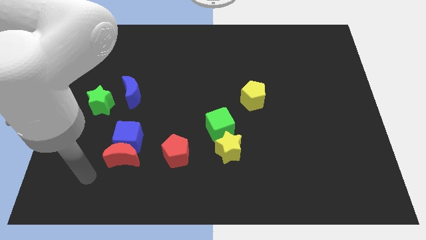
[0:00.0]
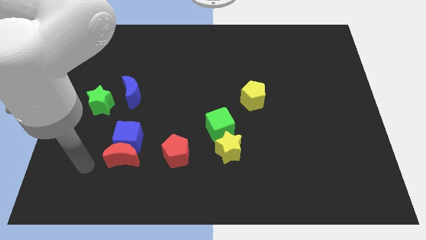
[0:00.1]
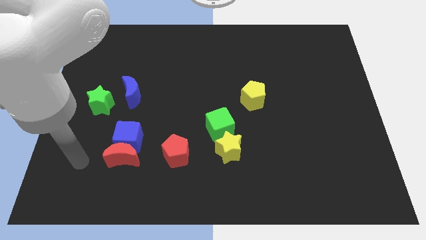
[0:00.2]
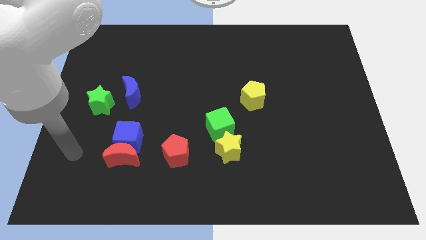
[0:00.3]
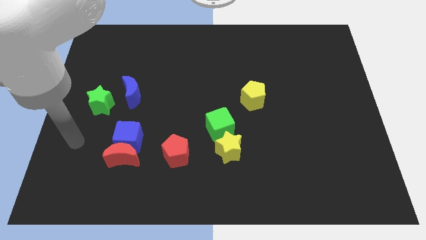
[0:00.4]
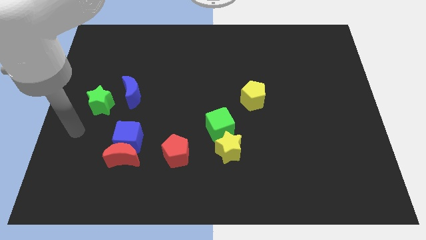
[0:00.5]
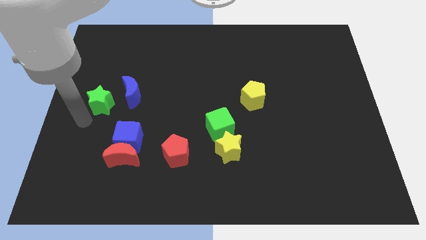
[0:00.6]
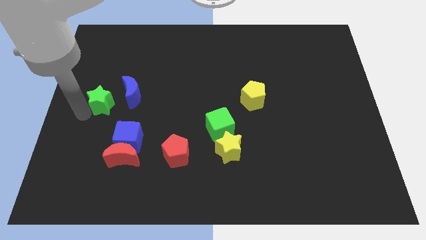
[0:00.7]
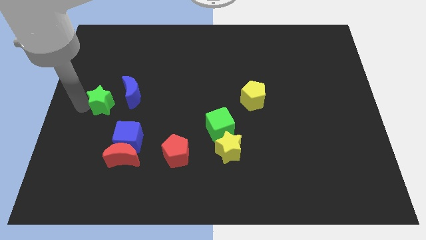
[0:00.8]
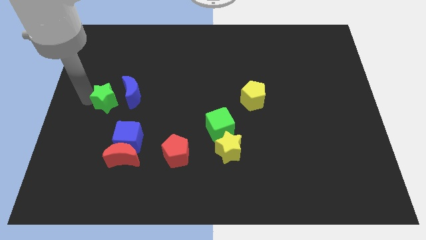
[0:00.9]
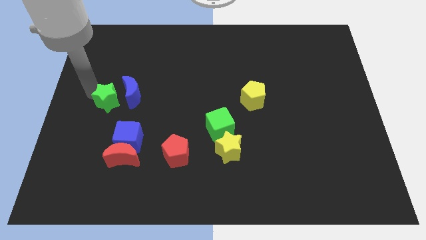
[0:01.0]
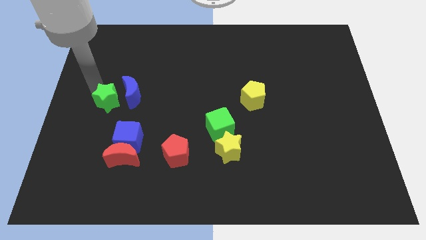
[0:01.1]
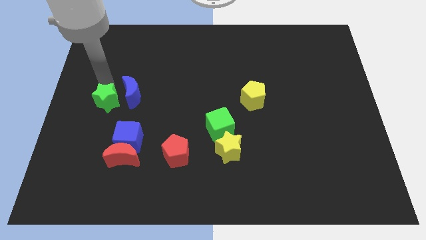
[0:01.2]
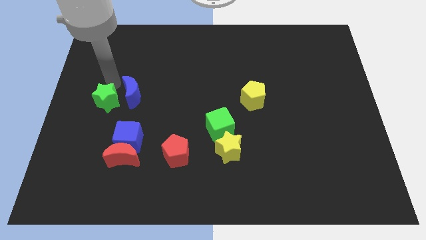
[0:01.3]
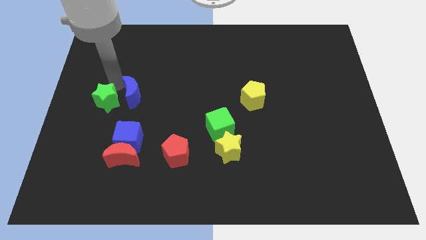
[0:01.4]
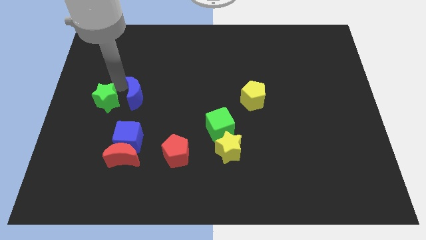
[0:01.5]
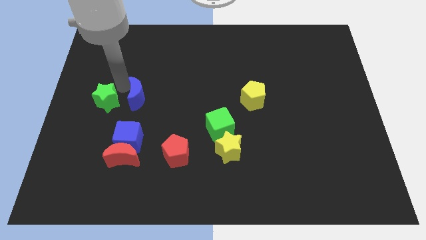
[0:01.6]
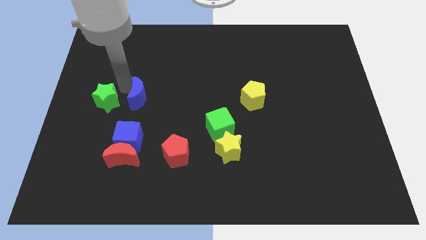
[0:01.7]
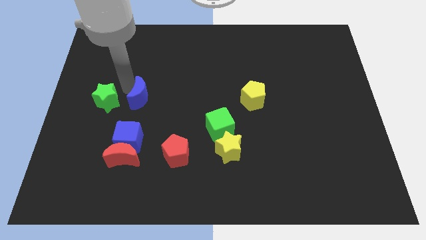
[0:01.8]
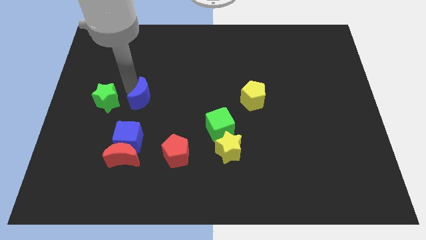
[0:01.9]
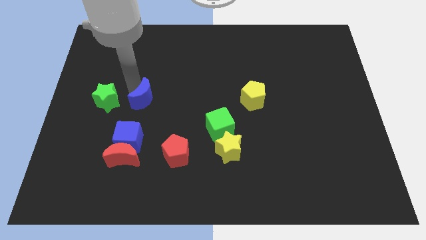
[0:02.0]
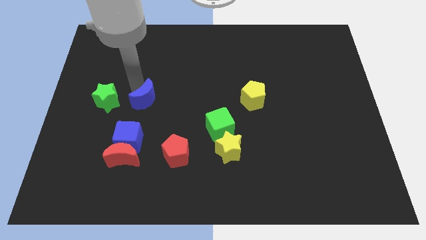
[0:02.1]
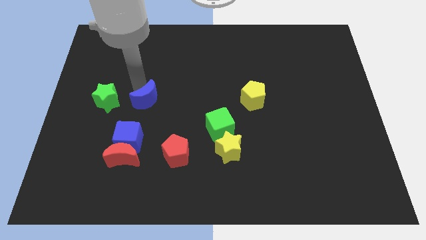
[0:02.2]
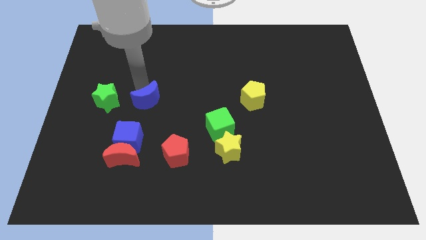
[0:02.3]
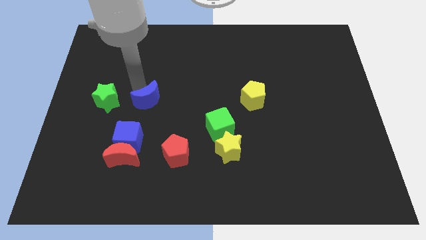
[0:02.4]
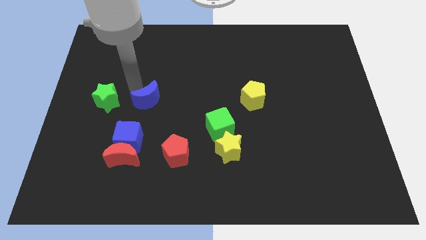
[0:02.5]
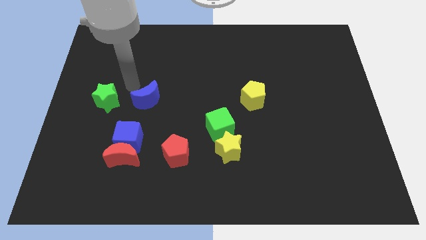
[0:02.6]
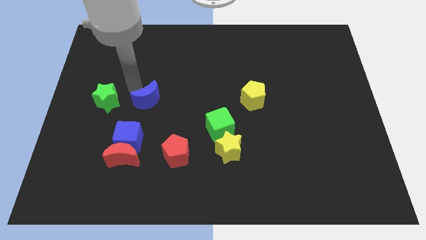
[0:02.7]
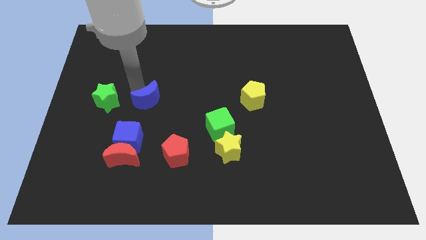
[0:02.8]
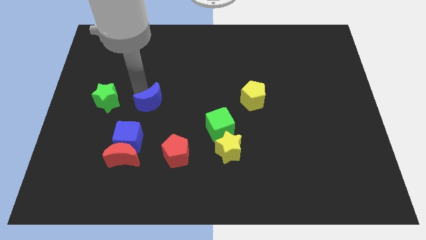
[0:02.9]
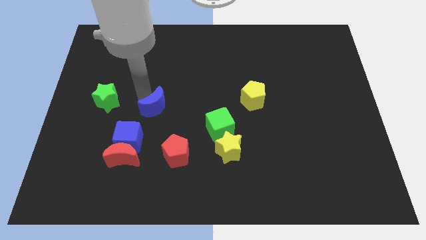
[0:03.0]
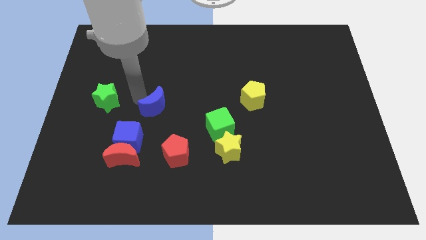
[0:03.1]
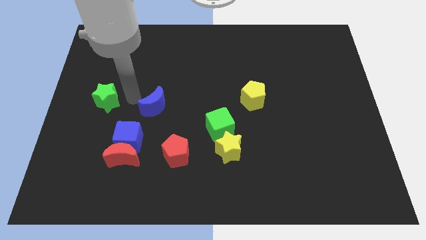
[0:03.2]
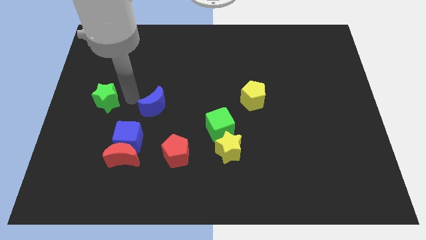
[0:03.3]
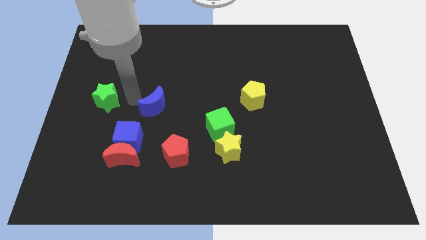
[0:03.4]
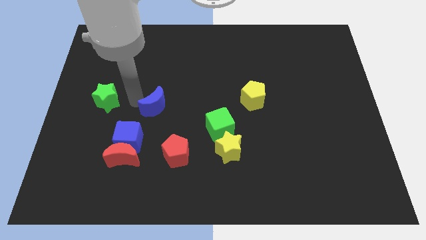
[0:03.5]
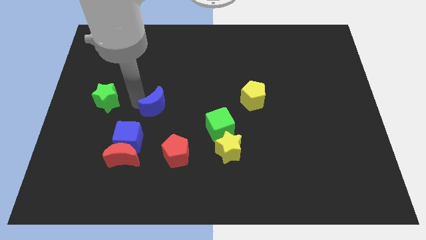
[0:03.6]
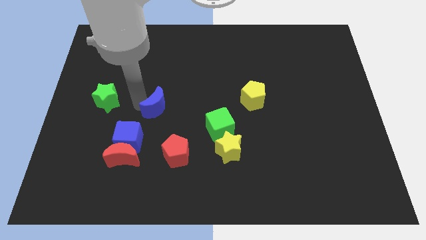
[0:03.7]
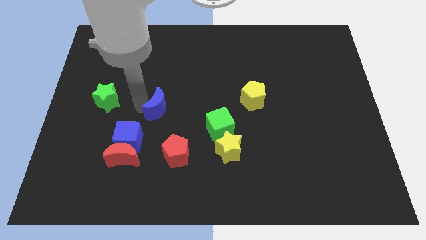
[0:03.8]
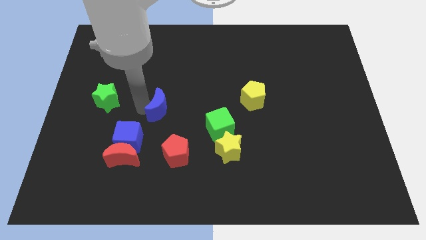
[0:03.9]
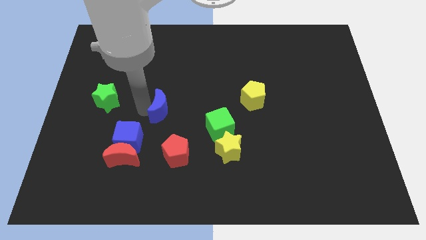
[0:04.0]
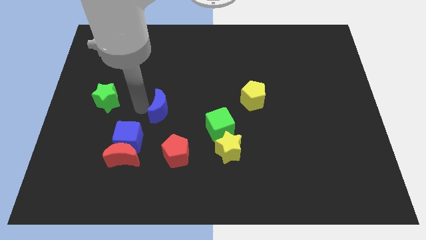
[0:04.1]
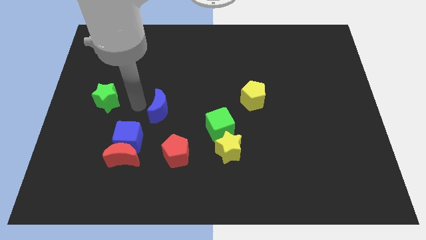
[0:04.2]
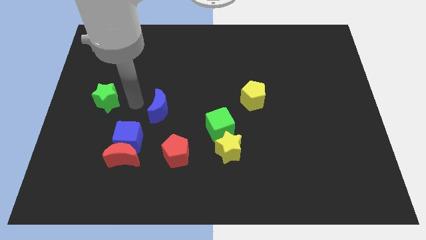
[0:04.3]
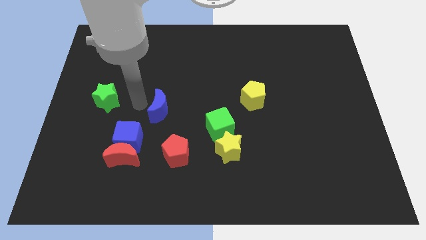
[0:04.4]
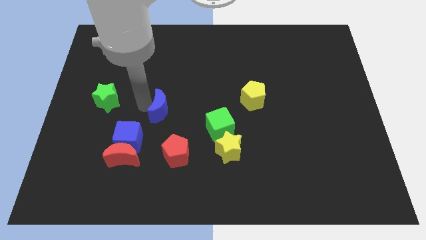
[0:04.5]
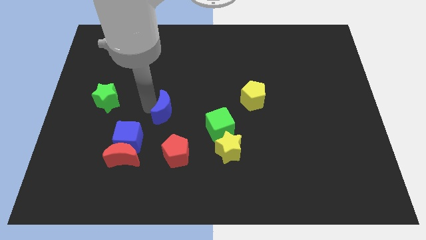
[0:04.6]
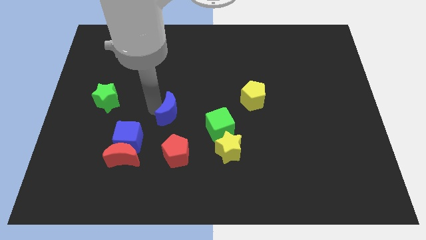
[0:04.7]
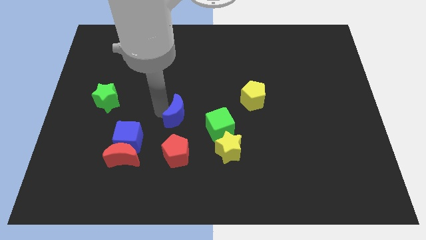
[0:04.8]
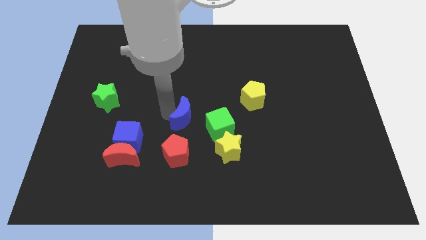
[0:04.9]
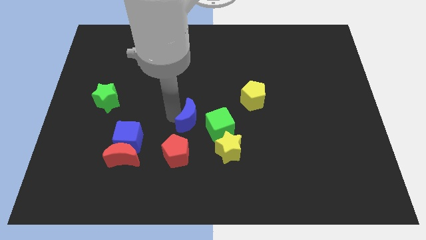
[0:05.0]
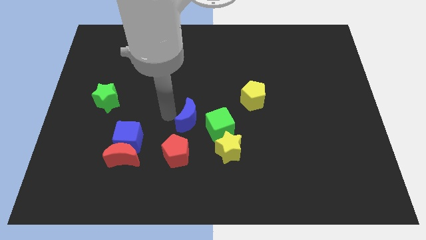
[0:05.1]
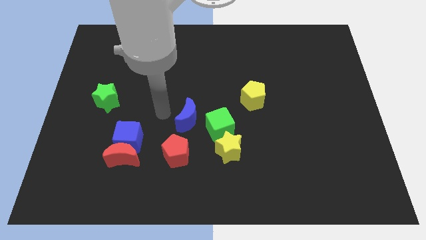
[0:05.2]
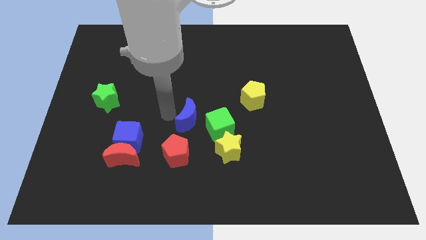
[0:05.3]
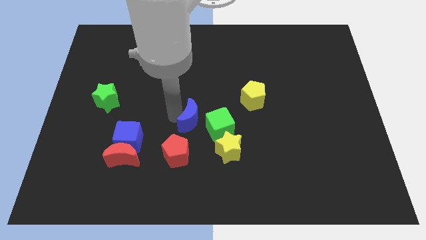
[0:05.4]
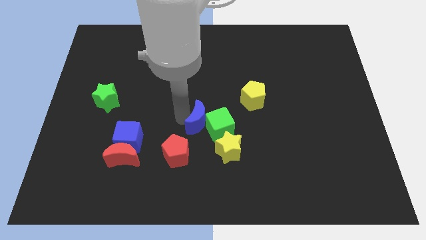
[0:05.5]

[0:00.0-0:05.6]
slide the blue moon towards the green cube

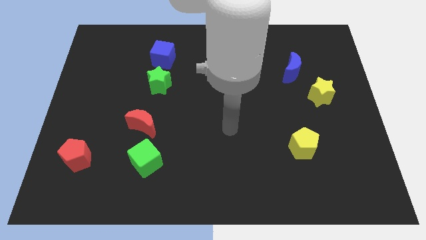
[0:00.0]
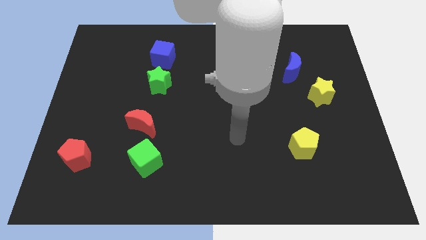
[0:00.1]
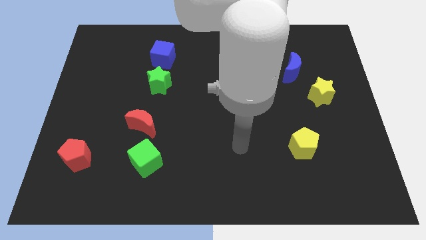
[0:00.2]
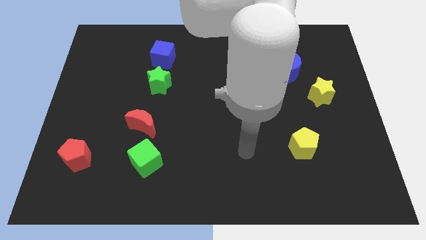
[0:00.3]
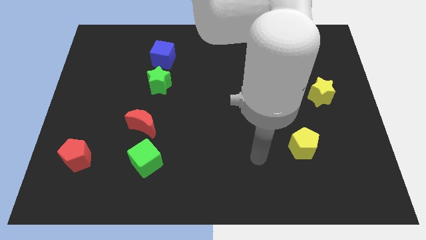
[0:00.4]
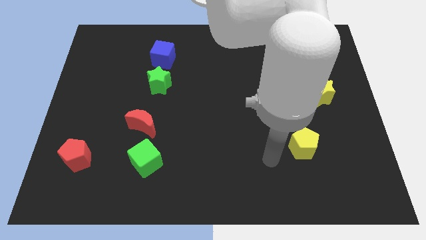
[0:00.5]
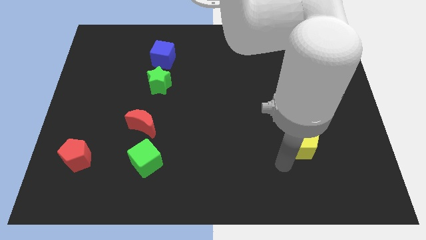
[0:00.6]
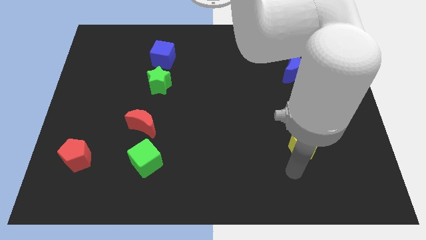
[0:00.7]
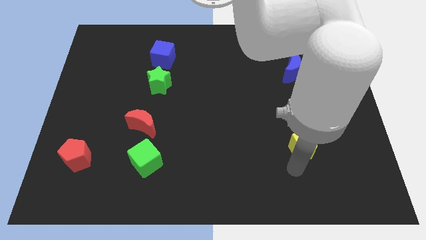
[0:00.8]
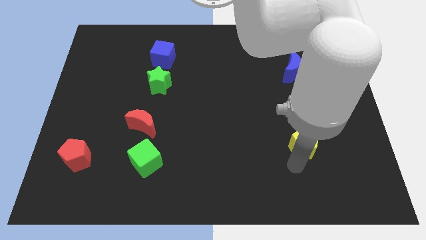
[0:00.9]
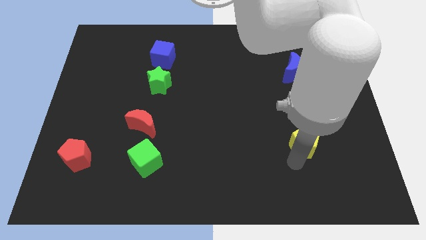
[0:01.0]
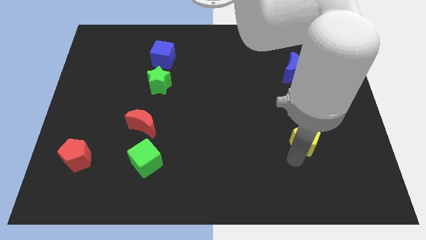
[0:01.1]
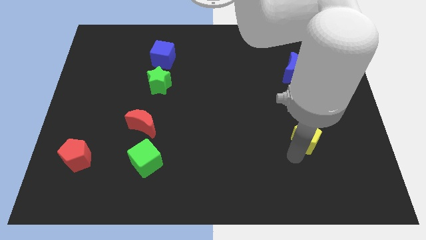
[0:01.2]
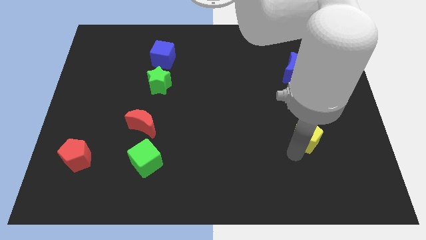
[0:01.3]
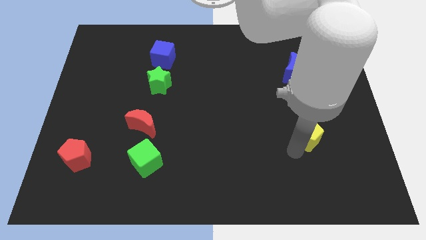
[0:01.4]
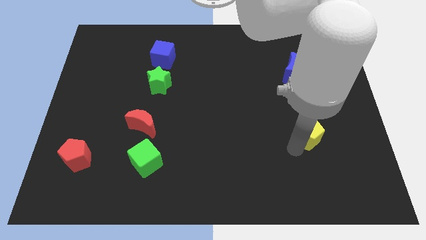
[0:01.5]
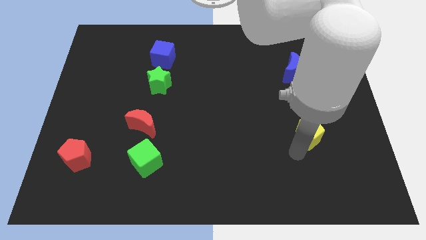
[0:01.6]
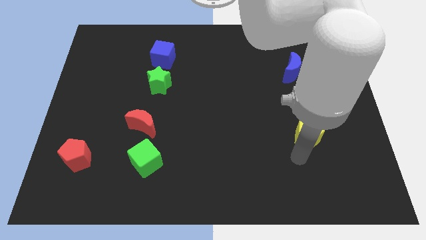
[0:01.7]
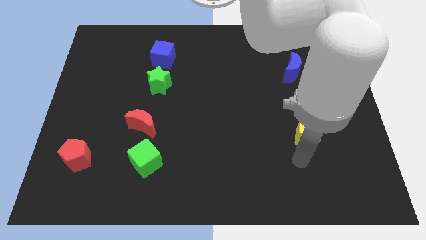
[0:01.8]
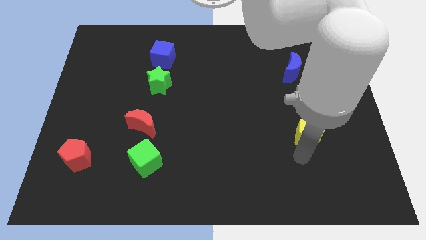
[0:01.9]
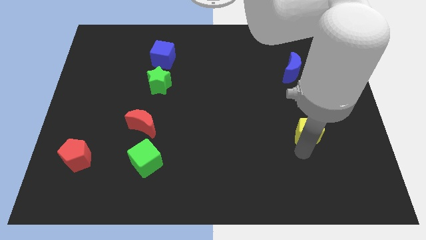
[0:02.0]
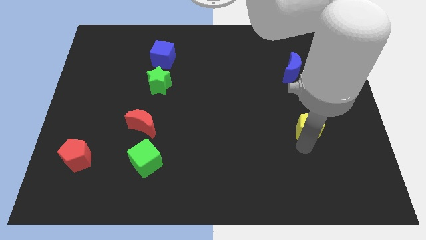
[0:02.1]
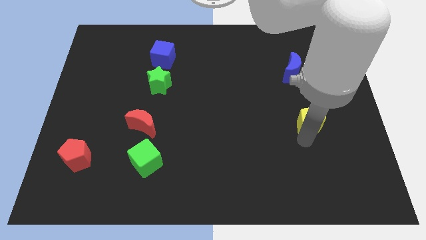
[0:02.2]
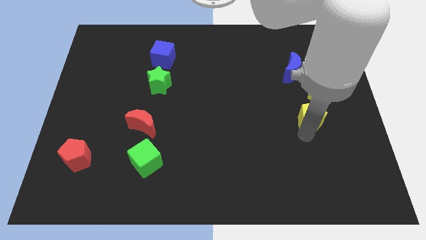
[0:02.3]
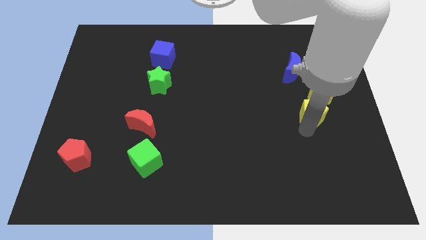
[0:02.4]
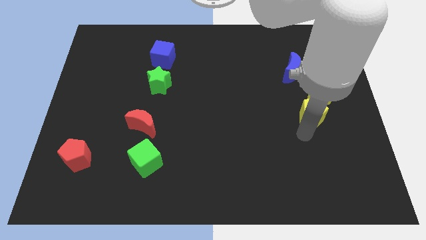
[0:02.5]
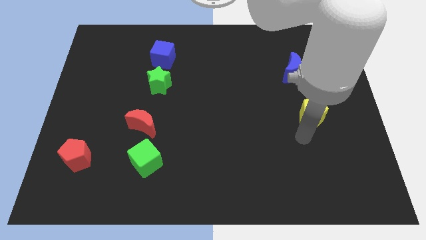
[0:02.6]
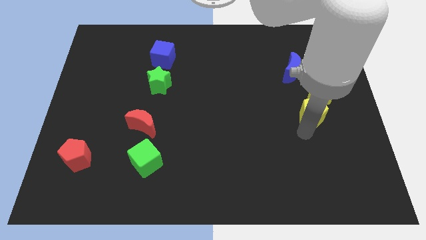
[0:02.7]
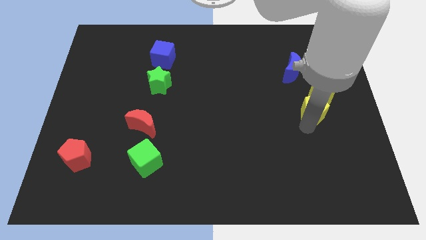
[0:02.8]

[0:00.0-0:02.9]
move the yellow pentagon next to the yellow star
